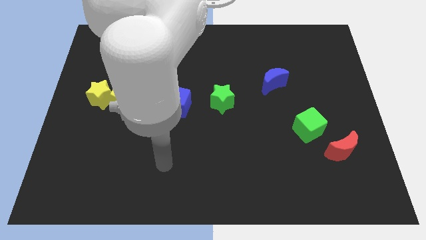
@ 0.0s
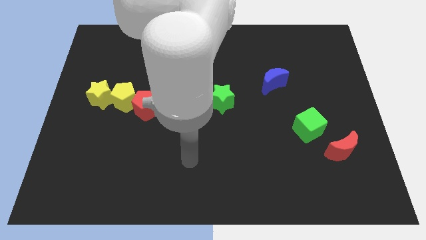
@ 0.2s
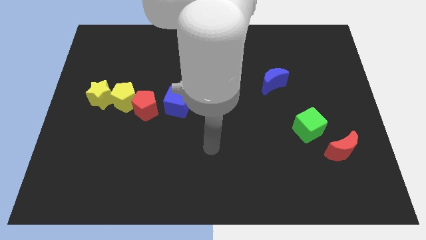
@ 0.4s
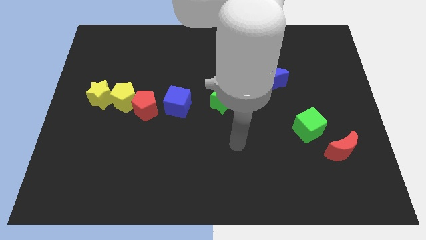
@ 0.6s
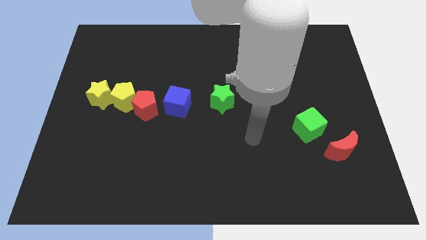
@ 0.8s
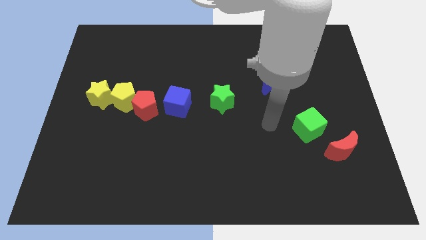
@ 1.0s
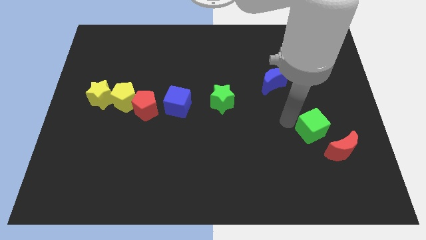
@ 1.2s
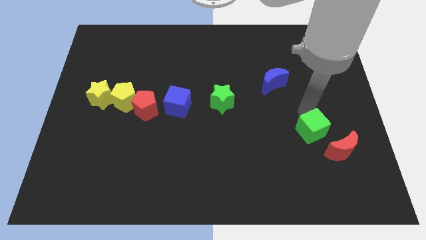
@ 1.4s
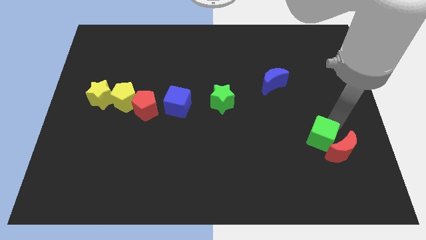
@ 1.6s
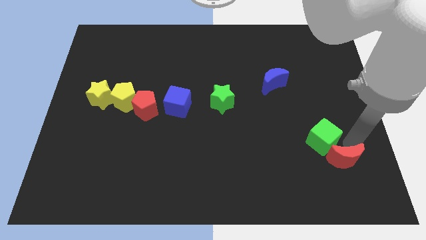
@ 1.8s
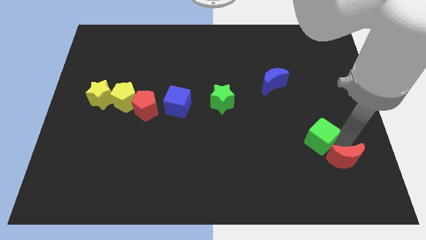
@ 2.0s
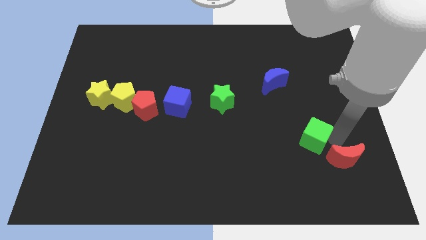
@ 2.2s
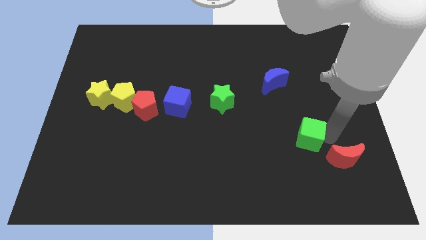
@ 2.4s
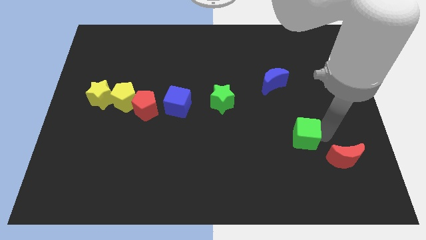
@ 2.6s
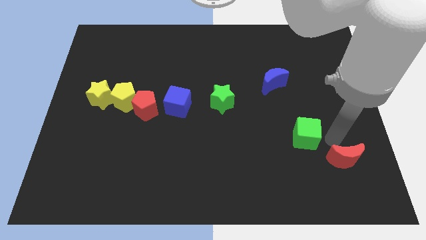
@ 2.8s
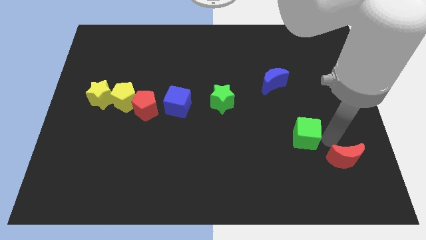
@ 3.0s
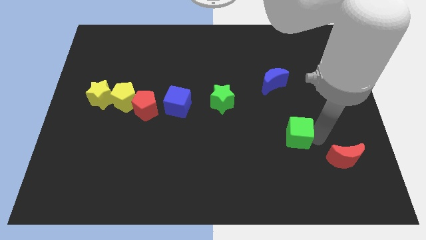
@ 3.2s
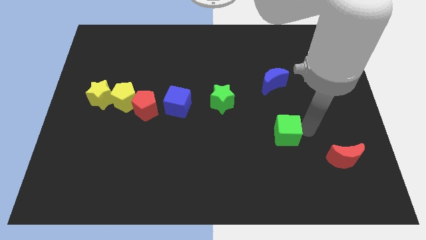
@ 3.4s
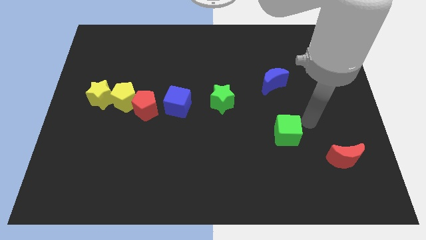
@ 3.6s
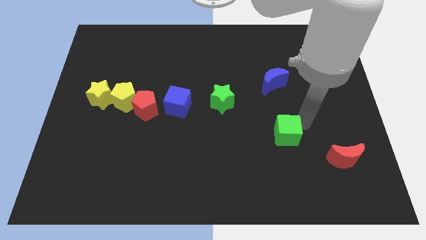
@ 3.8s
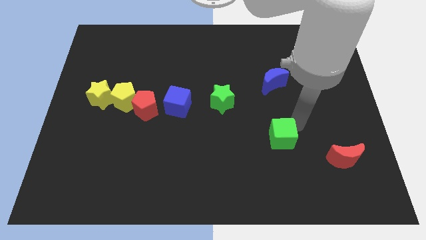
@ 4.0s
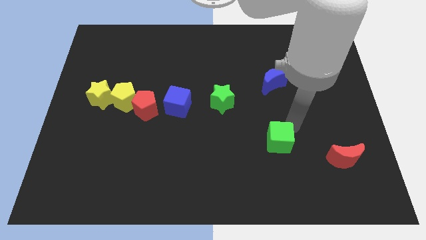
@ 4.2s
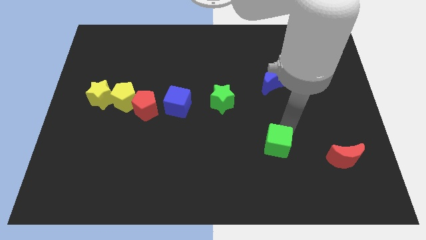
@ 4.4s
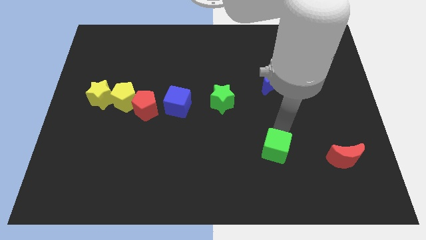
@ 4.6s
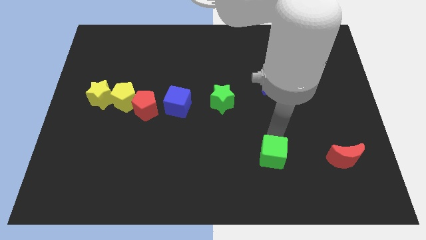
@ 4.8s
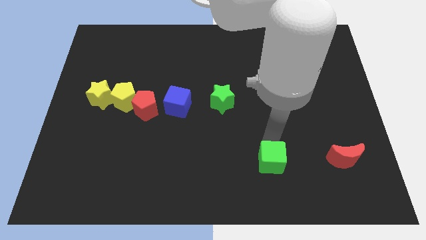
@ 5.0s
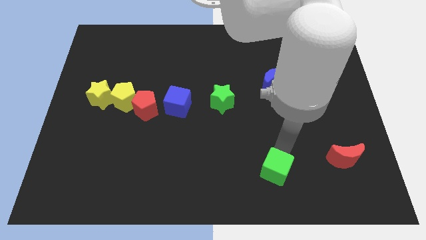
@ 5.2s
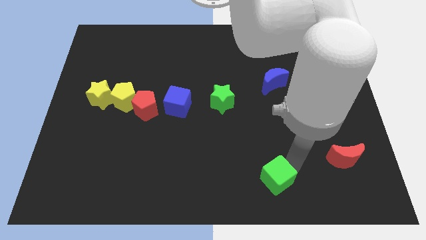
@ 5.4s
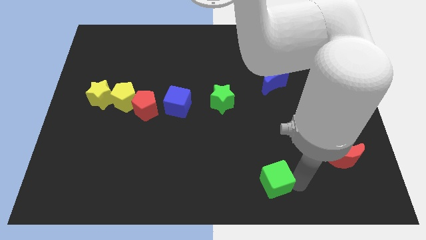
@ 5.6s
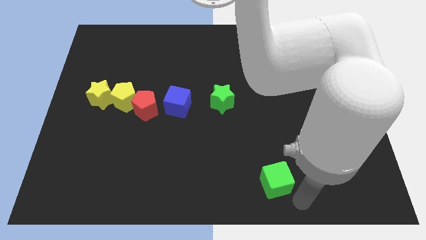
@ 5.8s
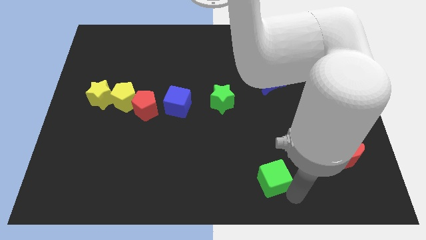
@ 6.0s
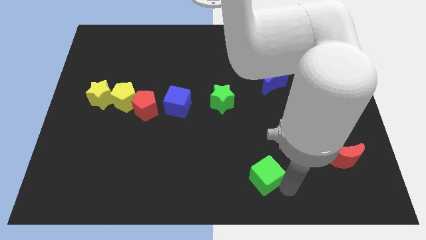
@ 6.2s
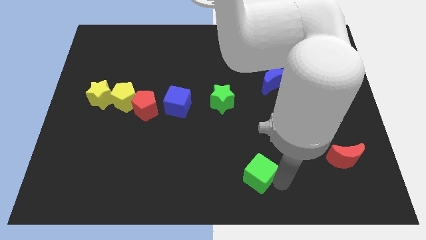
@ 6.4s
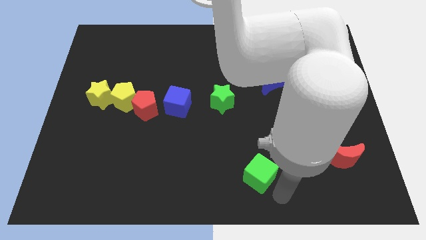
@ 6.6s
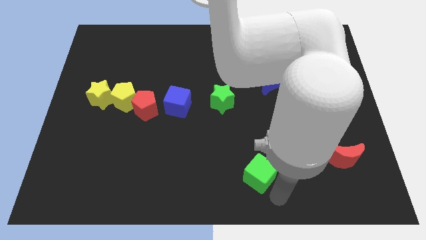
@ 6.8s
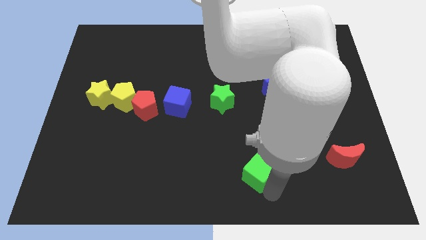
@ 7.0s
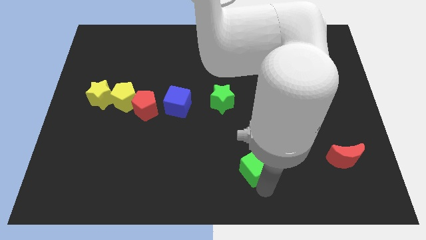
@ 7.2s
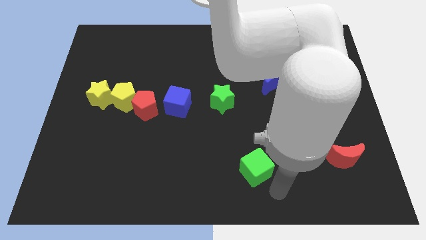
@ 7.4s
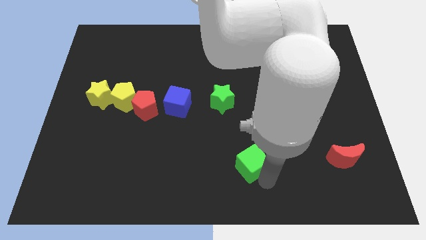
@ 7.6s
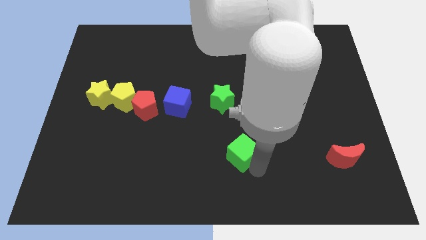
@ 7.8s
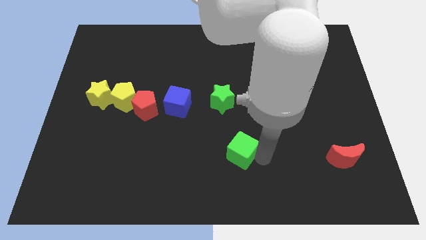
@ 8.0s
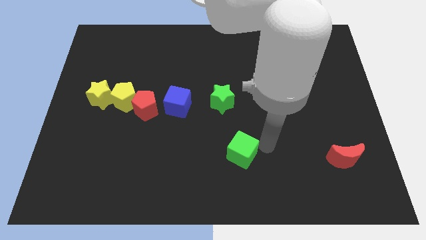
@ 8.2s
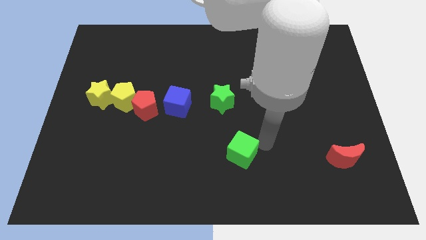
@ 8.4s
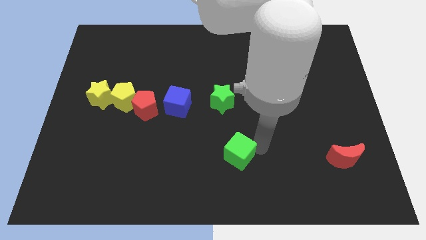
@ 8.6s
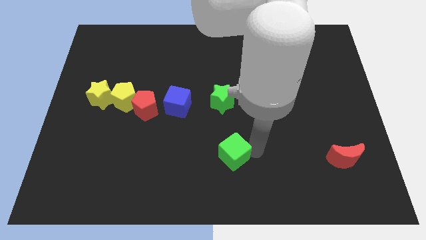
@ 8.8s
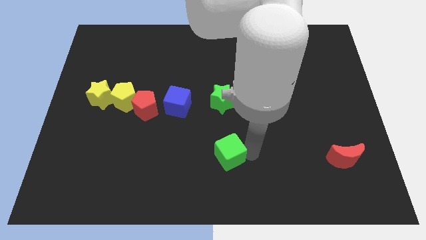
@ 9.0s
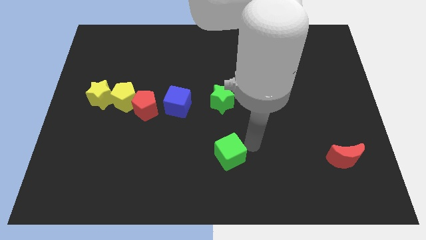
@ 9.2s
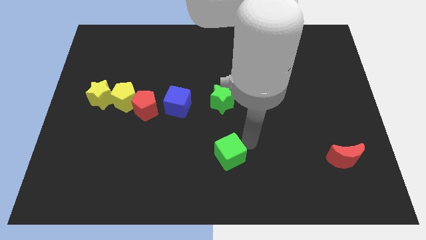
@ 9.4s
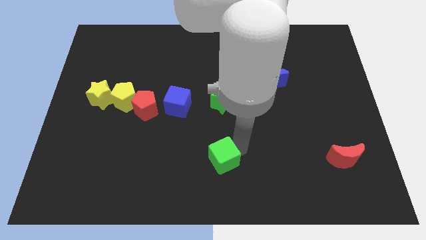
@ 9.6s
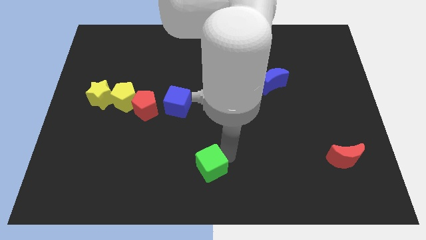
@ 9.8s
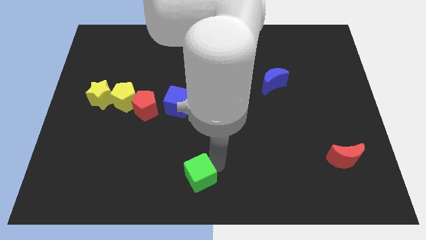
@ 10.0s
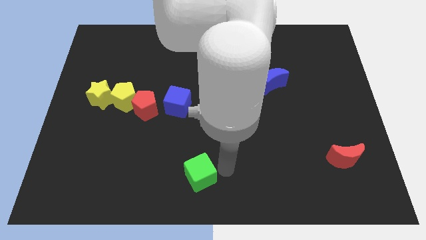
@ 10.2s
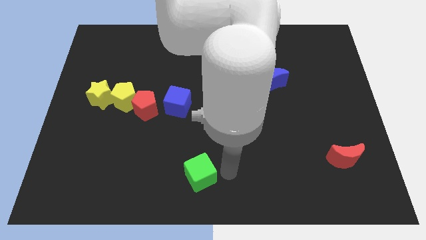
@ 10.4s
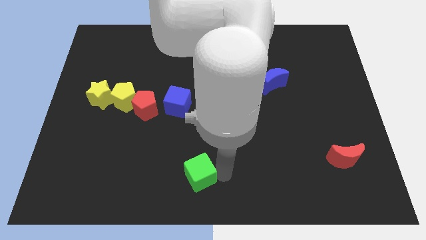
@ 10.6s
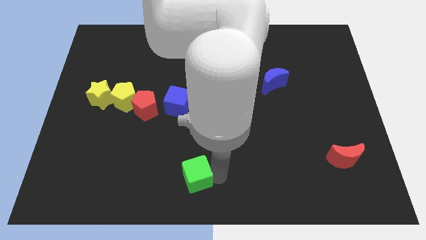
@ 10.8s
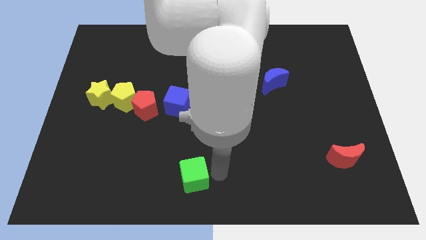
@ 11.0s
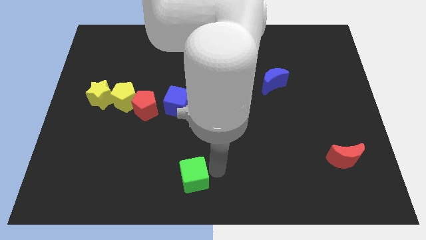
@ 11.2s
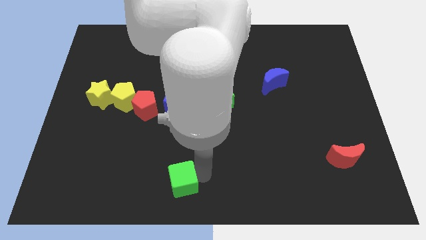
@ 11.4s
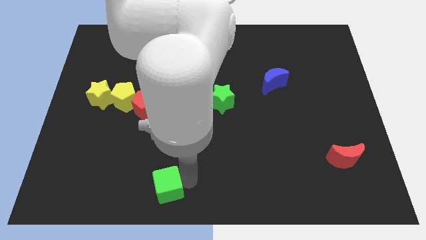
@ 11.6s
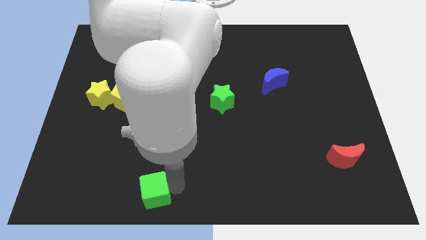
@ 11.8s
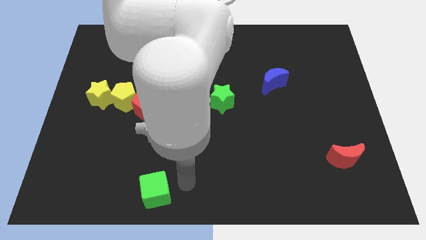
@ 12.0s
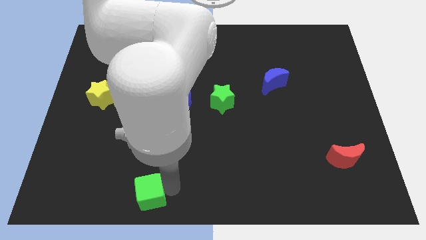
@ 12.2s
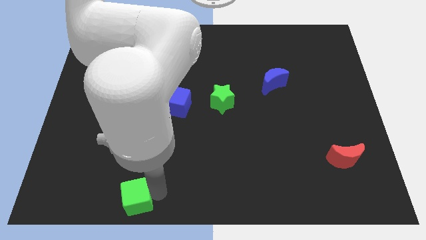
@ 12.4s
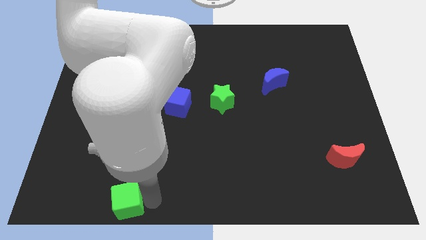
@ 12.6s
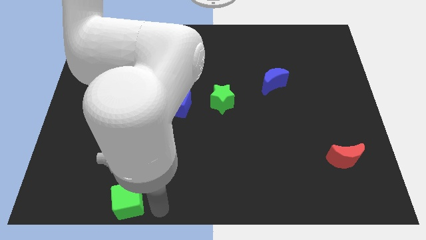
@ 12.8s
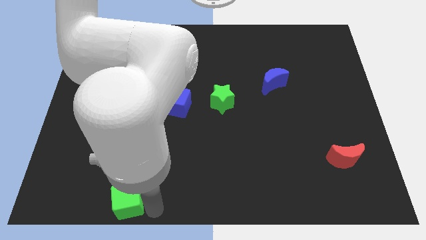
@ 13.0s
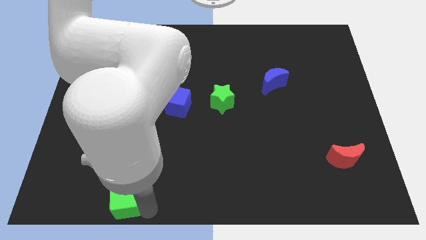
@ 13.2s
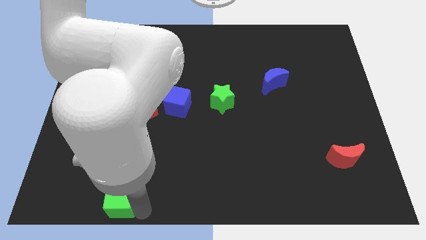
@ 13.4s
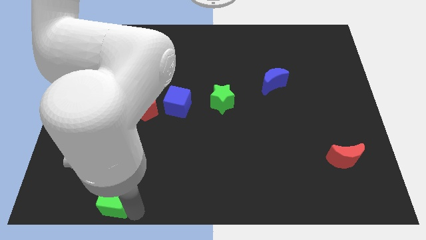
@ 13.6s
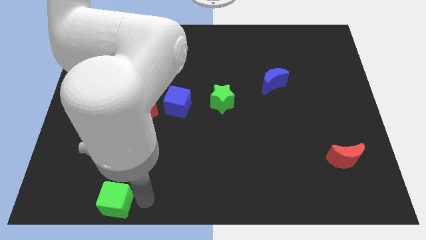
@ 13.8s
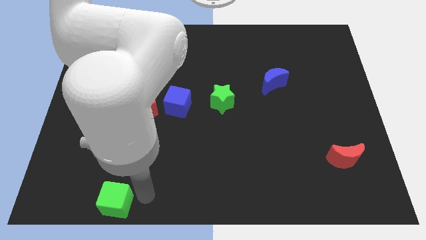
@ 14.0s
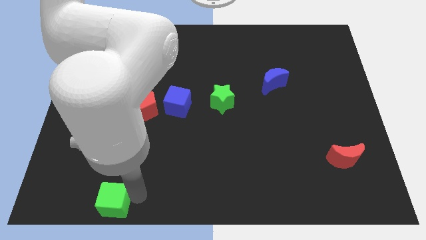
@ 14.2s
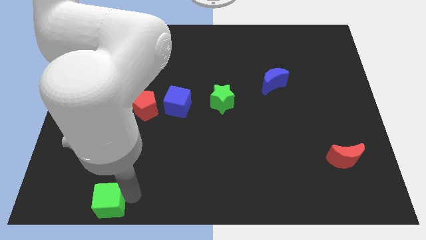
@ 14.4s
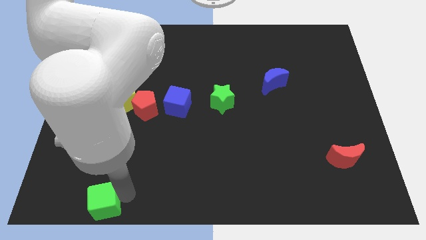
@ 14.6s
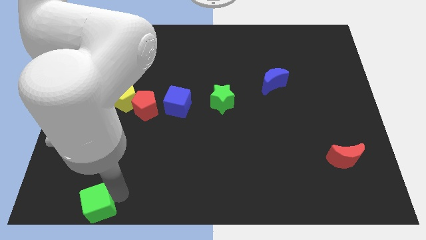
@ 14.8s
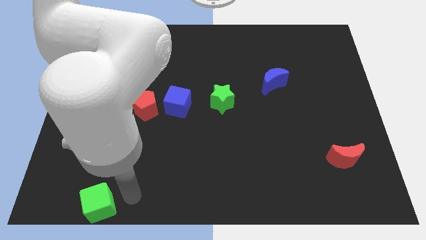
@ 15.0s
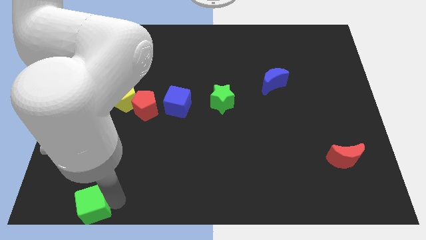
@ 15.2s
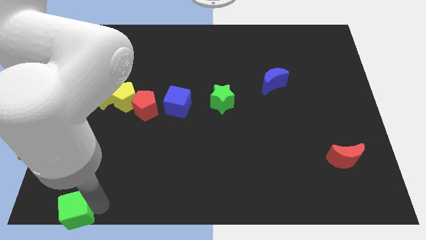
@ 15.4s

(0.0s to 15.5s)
put the green cube to the bottom left of the board
